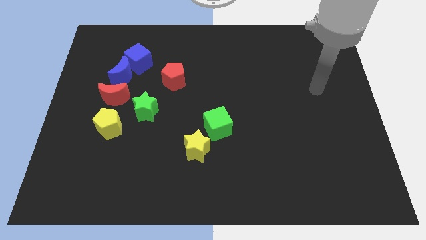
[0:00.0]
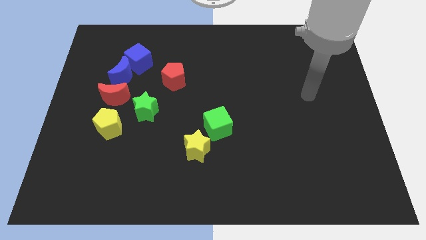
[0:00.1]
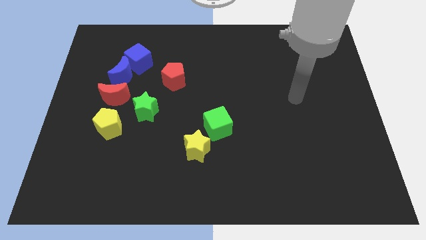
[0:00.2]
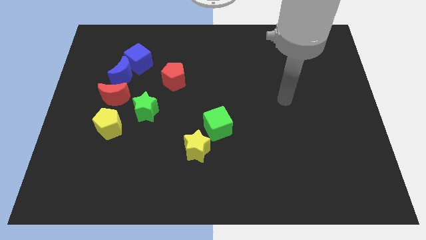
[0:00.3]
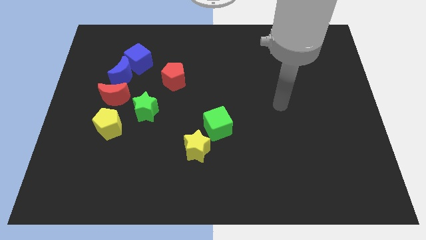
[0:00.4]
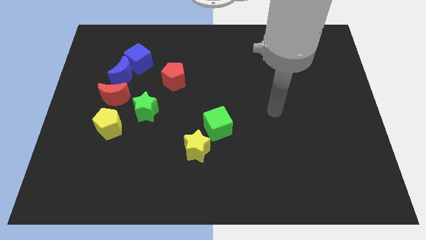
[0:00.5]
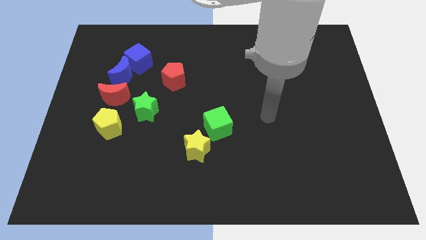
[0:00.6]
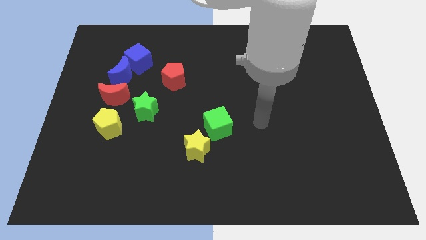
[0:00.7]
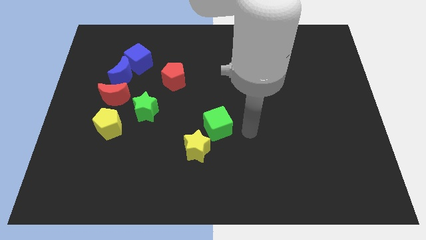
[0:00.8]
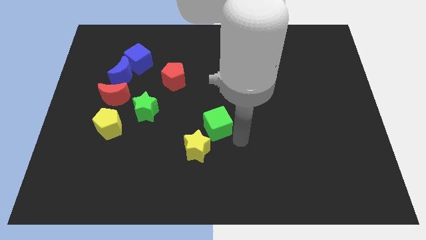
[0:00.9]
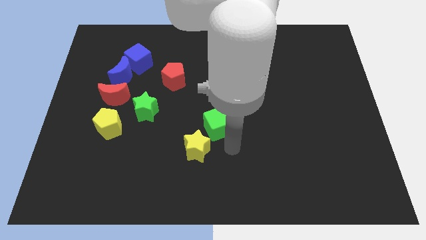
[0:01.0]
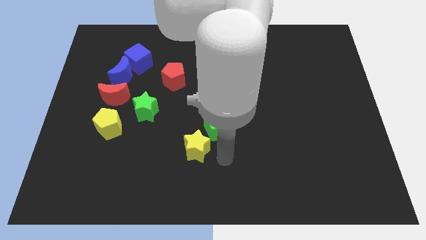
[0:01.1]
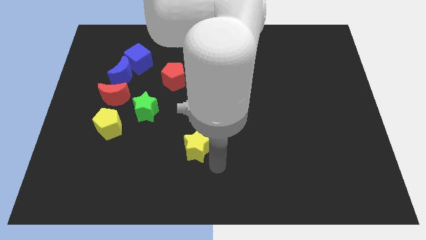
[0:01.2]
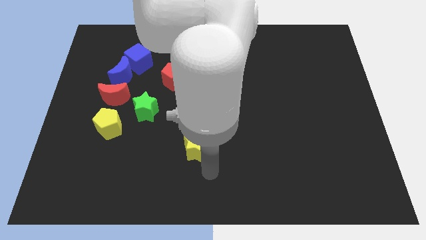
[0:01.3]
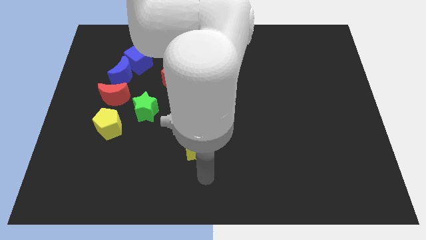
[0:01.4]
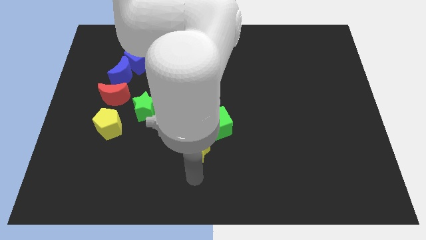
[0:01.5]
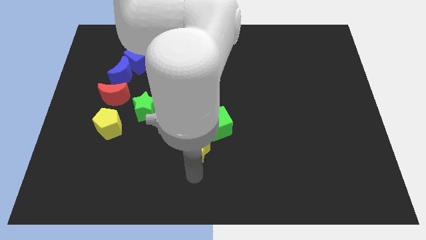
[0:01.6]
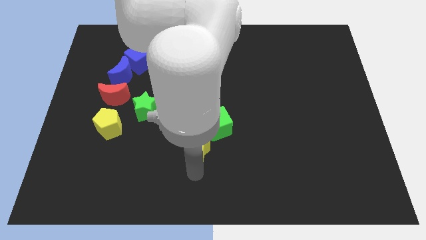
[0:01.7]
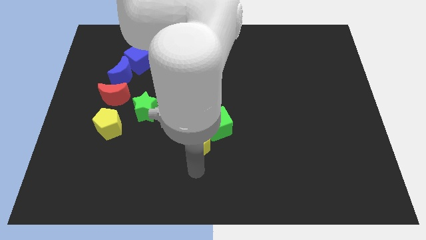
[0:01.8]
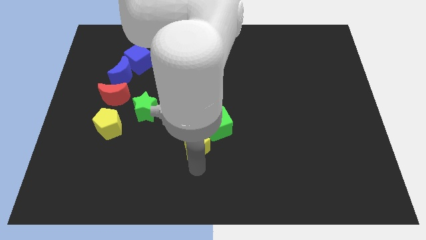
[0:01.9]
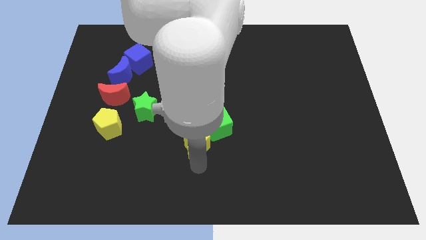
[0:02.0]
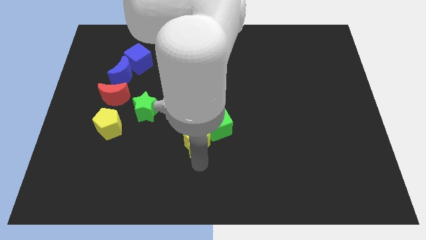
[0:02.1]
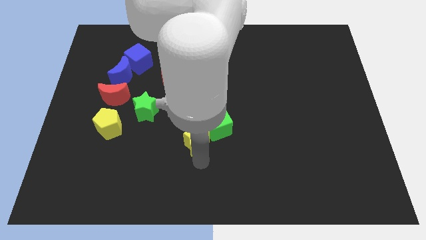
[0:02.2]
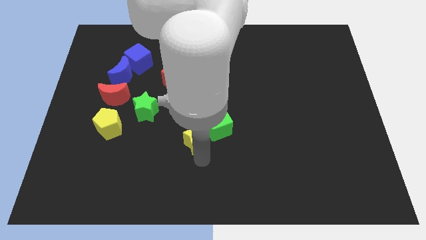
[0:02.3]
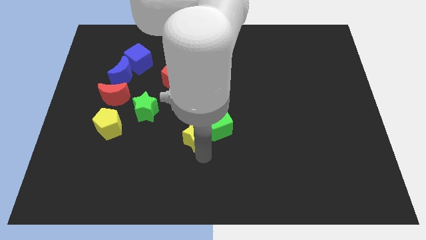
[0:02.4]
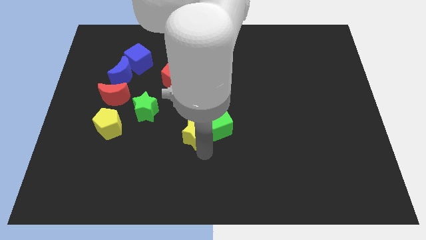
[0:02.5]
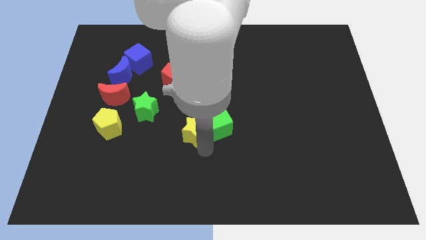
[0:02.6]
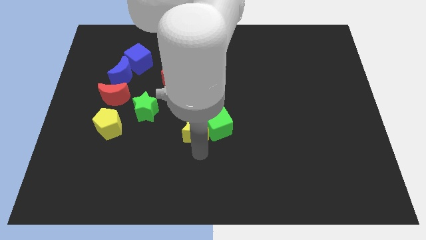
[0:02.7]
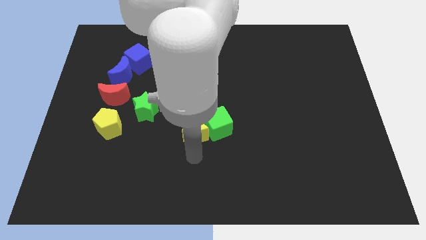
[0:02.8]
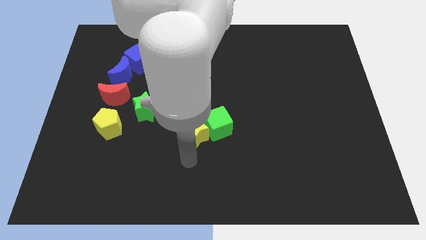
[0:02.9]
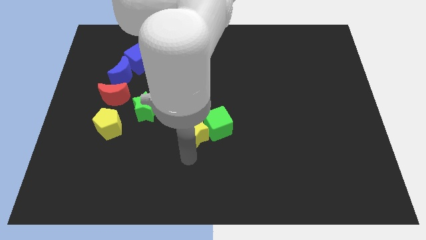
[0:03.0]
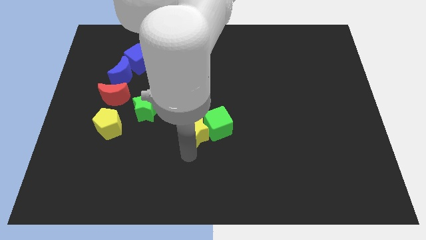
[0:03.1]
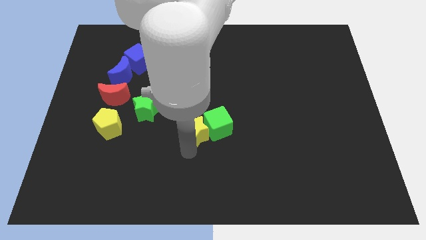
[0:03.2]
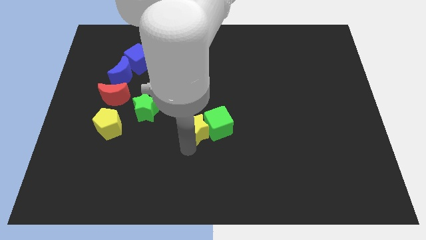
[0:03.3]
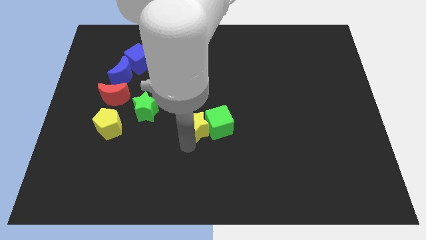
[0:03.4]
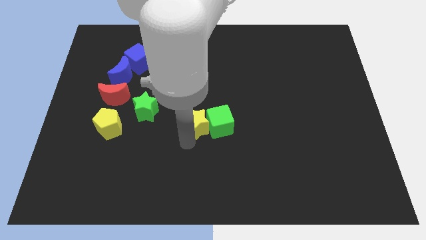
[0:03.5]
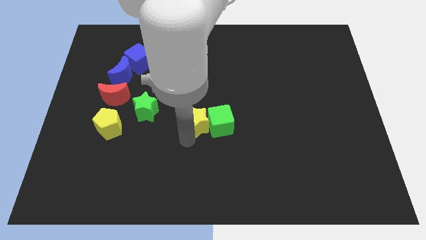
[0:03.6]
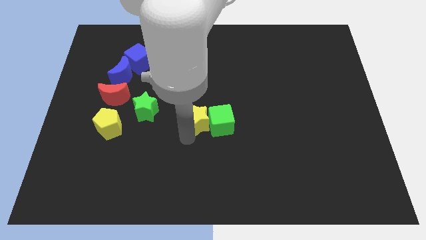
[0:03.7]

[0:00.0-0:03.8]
slightly push the yellow star upwards

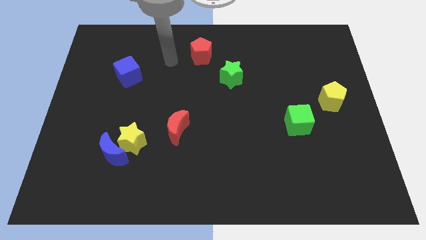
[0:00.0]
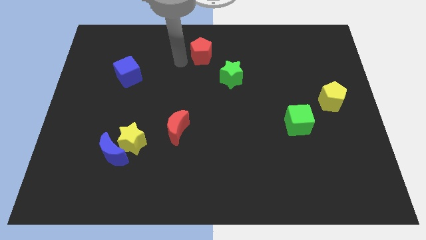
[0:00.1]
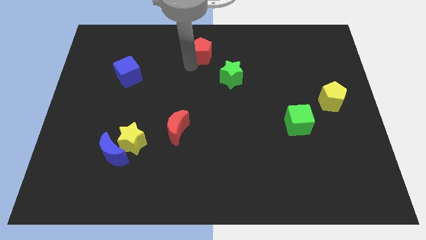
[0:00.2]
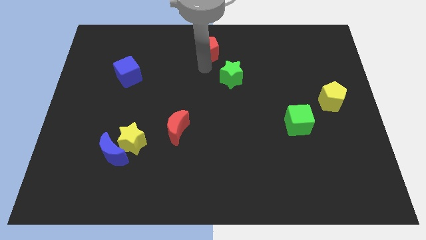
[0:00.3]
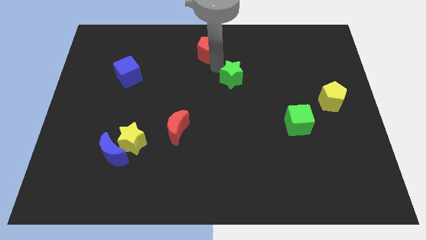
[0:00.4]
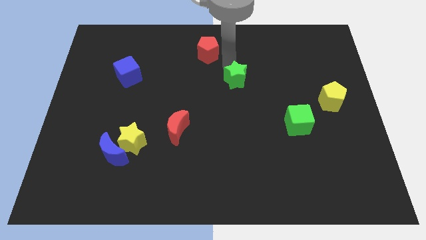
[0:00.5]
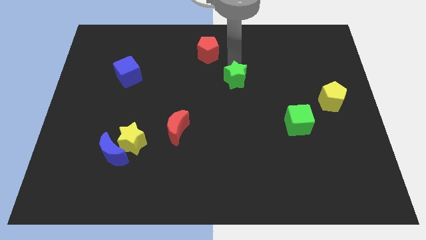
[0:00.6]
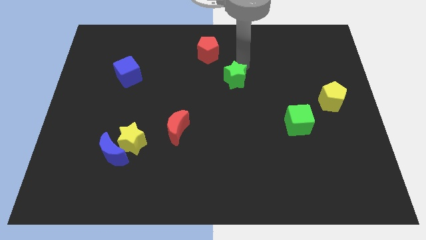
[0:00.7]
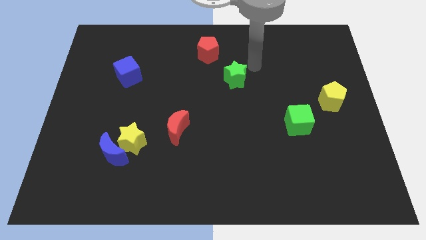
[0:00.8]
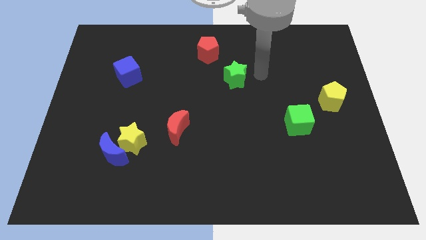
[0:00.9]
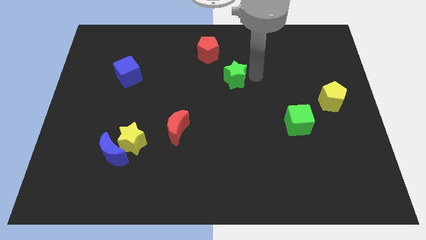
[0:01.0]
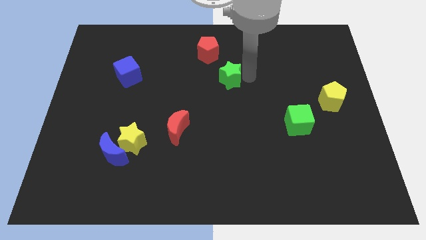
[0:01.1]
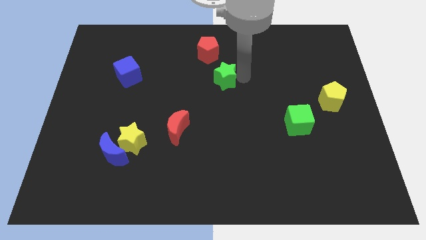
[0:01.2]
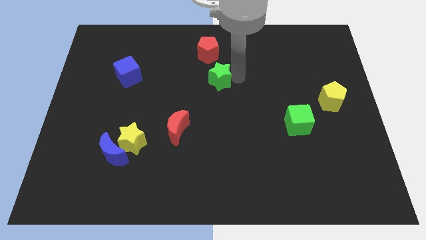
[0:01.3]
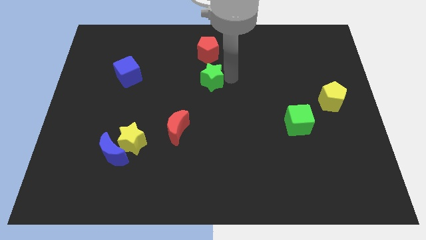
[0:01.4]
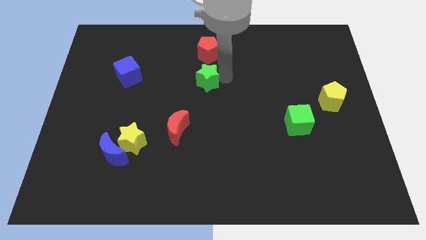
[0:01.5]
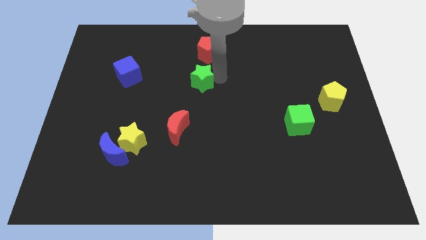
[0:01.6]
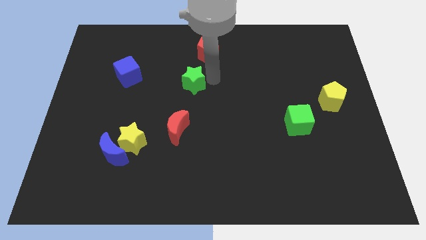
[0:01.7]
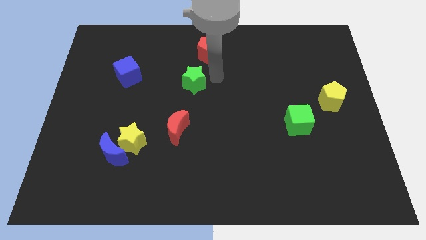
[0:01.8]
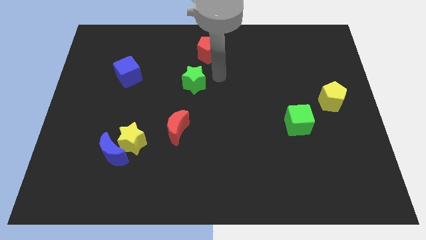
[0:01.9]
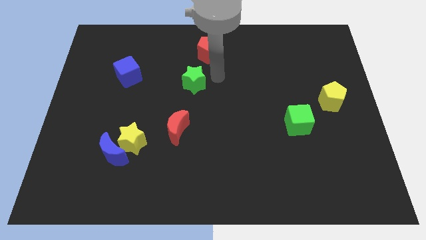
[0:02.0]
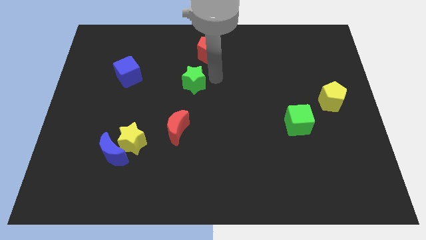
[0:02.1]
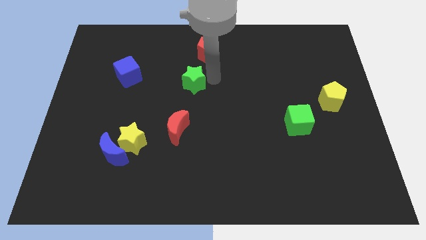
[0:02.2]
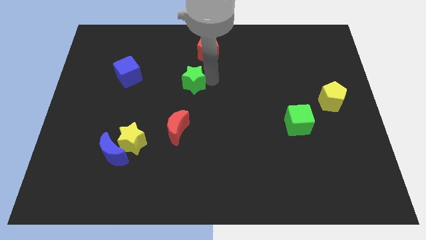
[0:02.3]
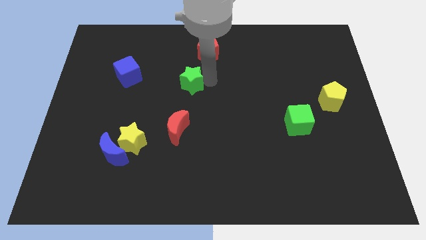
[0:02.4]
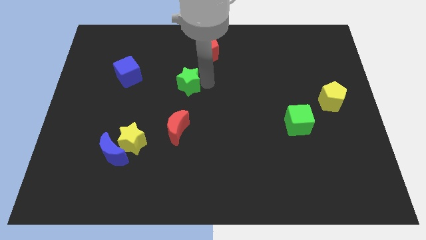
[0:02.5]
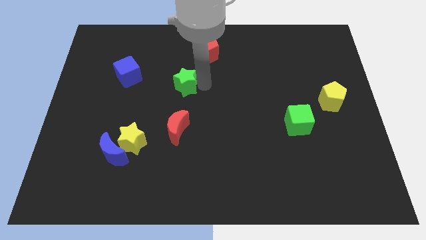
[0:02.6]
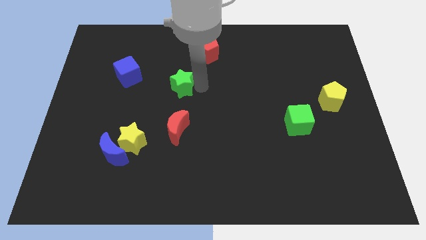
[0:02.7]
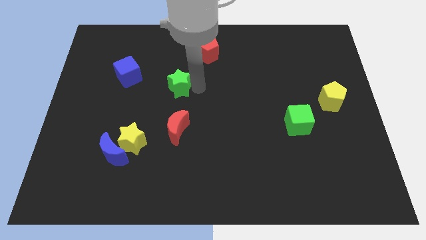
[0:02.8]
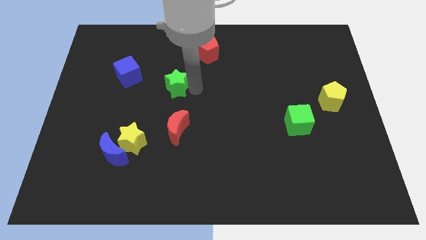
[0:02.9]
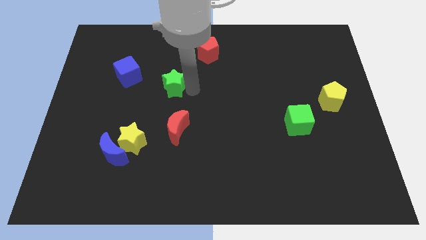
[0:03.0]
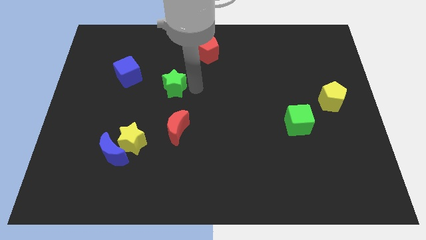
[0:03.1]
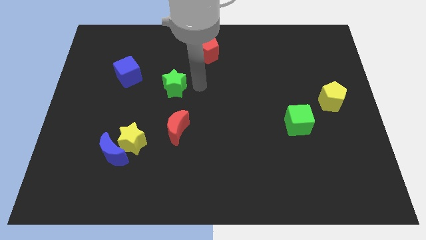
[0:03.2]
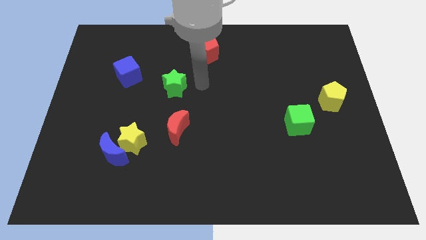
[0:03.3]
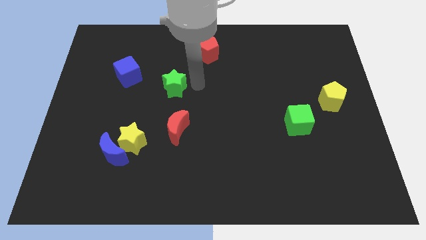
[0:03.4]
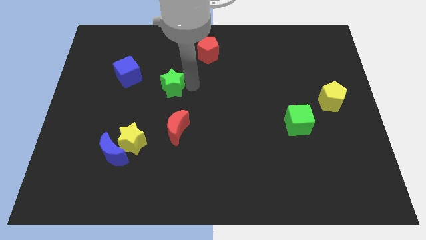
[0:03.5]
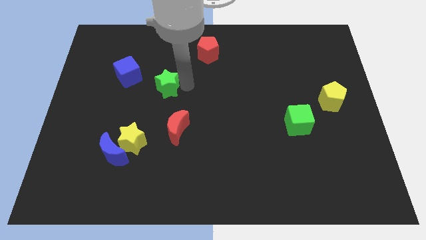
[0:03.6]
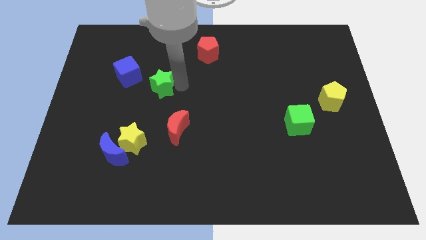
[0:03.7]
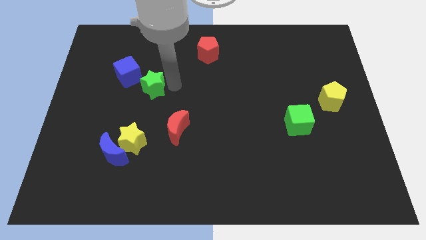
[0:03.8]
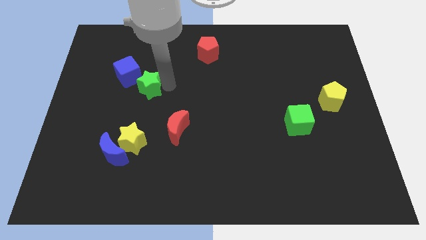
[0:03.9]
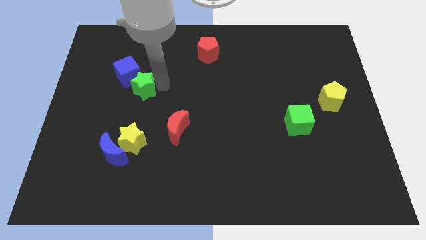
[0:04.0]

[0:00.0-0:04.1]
move the green star to the left

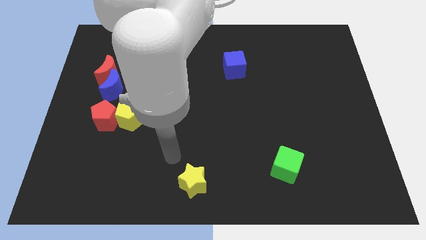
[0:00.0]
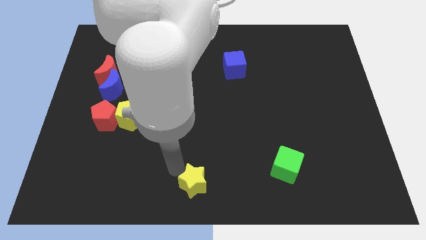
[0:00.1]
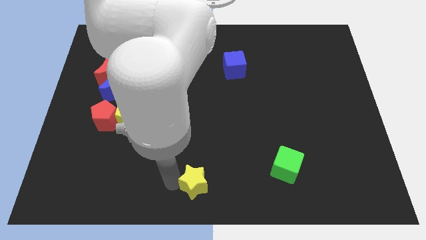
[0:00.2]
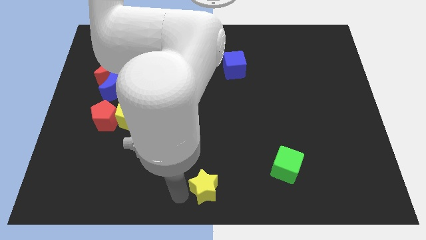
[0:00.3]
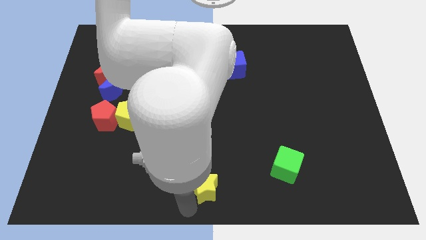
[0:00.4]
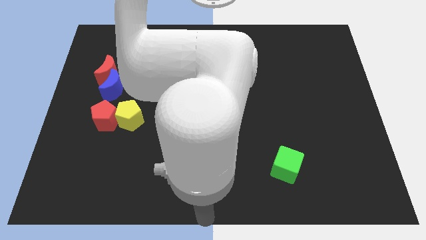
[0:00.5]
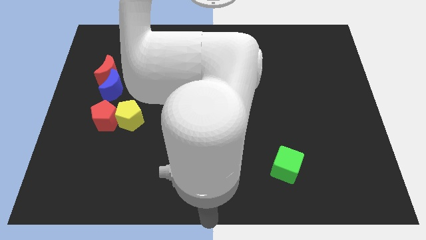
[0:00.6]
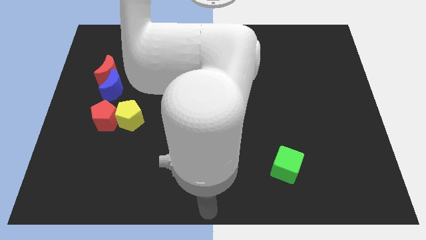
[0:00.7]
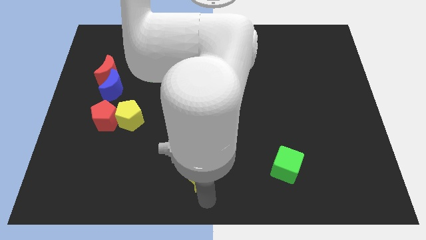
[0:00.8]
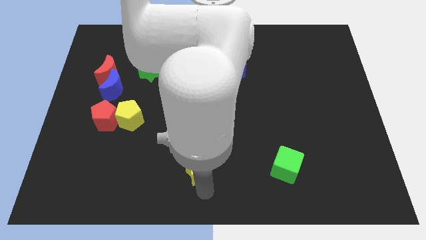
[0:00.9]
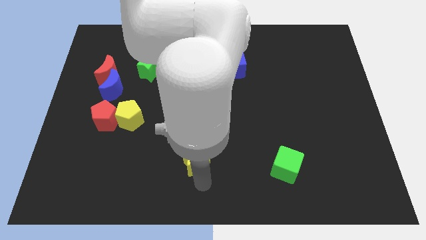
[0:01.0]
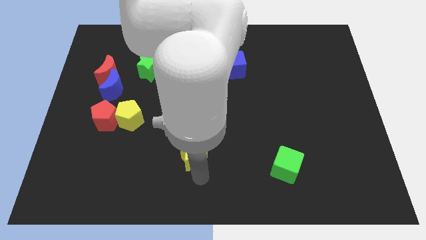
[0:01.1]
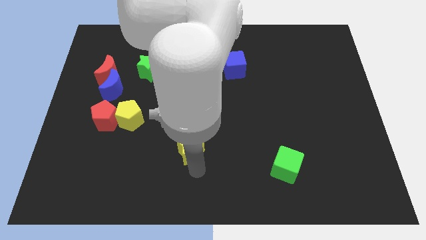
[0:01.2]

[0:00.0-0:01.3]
push the yellow star a little bit upwards
